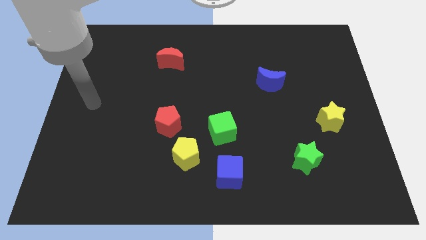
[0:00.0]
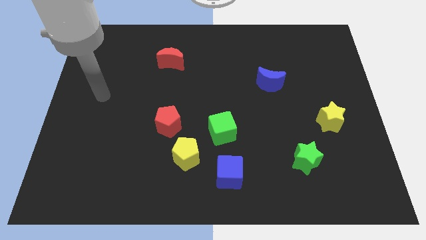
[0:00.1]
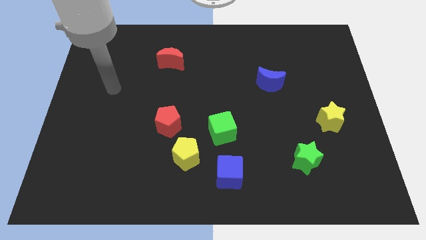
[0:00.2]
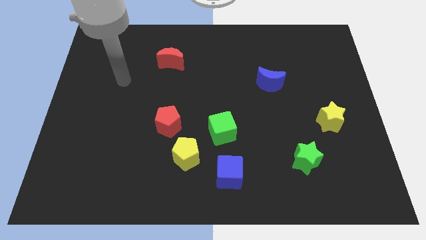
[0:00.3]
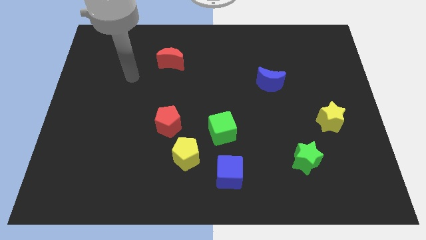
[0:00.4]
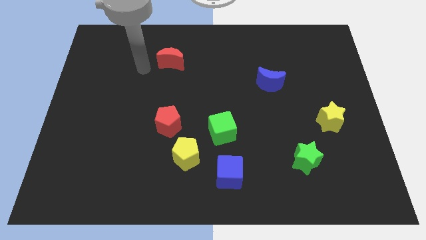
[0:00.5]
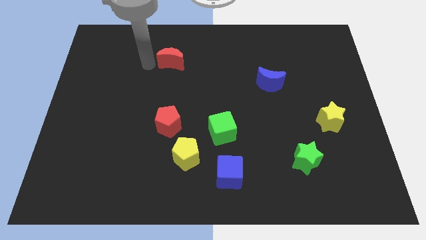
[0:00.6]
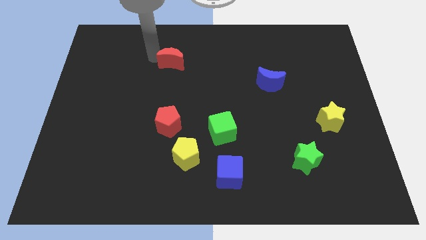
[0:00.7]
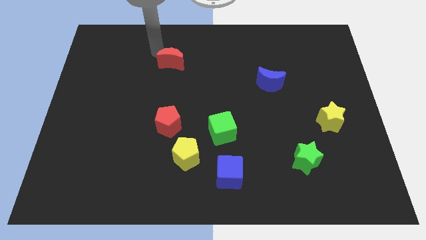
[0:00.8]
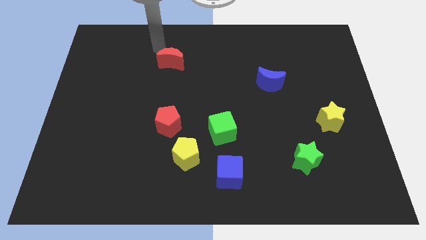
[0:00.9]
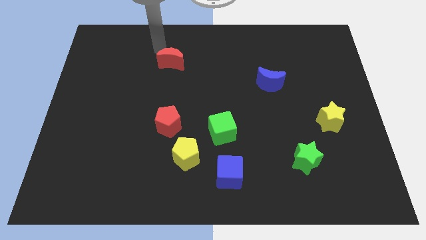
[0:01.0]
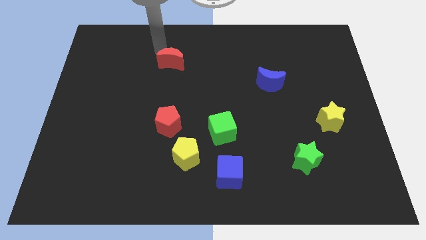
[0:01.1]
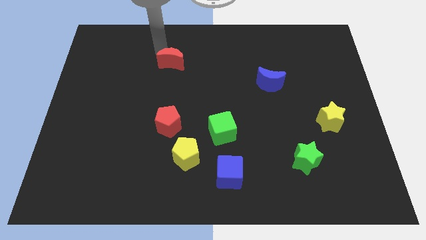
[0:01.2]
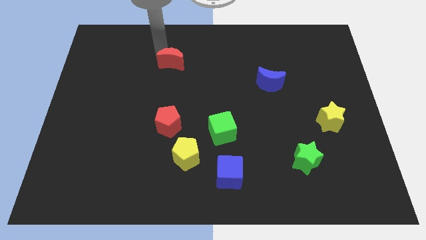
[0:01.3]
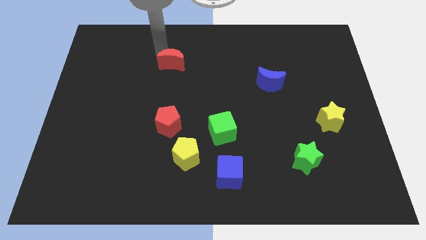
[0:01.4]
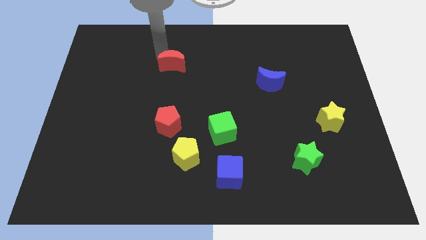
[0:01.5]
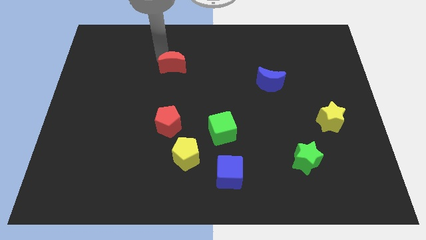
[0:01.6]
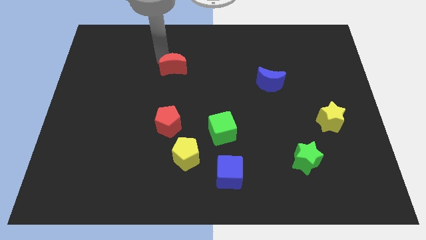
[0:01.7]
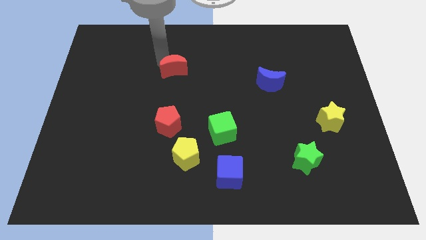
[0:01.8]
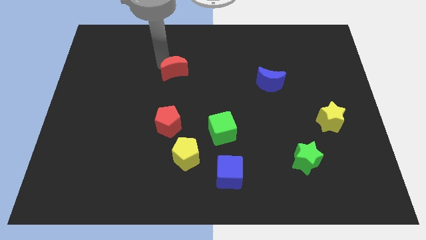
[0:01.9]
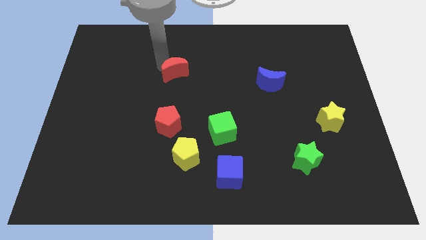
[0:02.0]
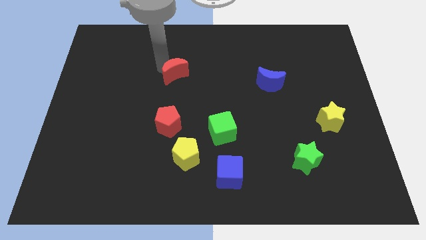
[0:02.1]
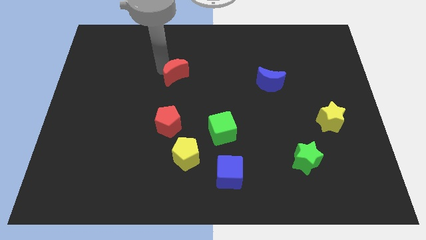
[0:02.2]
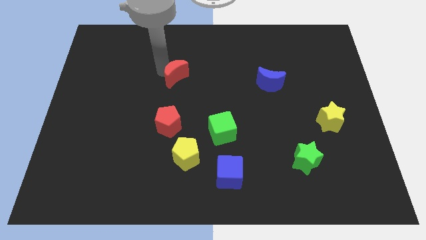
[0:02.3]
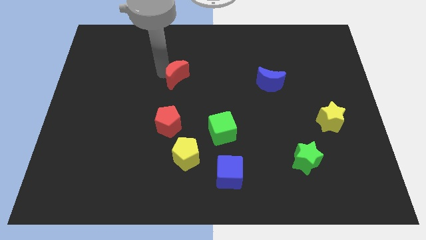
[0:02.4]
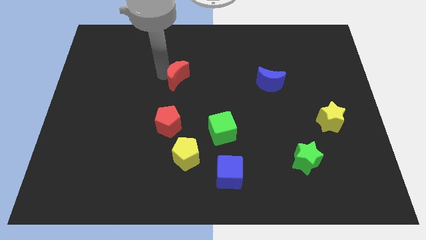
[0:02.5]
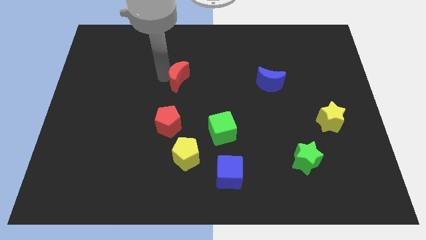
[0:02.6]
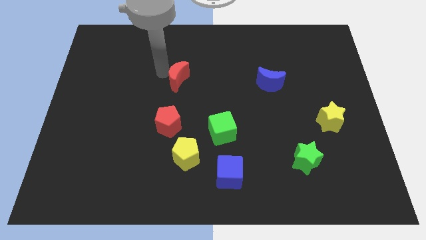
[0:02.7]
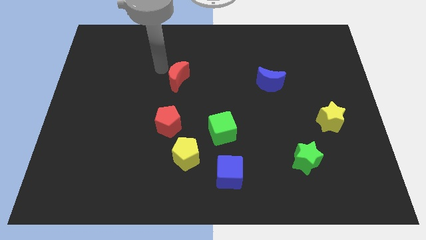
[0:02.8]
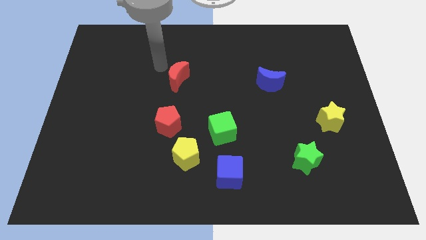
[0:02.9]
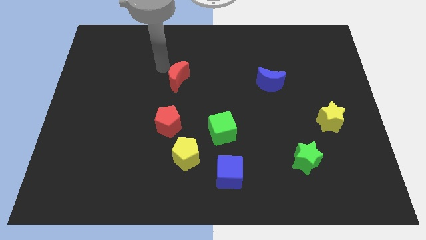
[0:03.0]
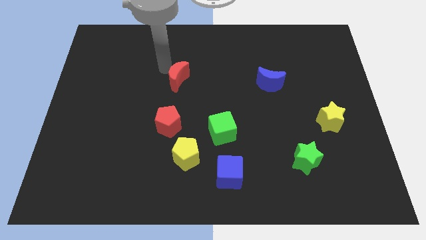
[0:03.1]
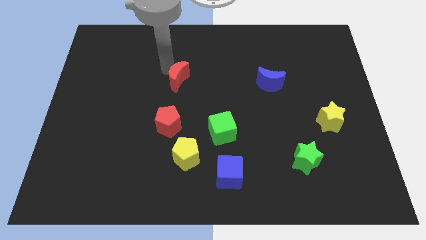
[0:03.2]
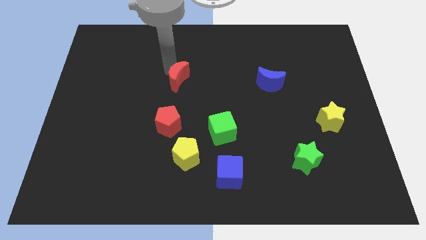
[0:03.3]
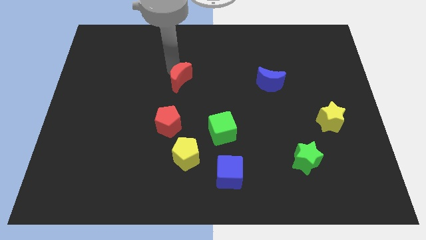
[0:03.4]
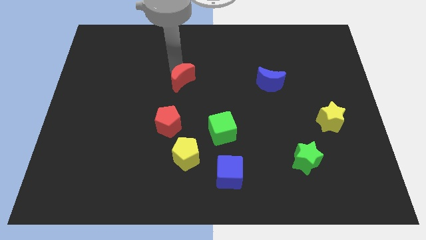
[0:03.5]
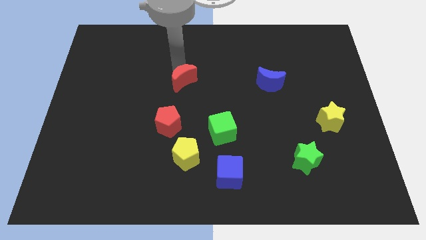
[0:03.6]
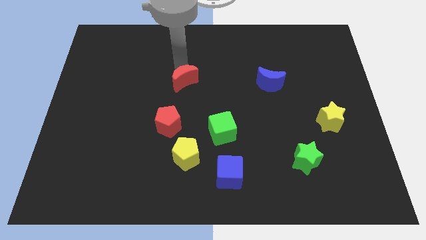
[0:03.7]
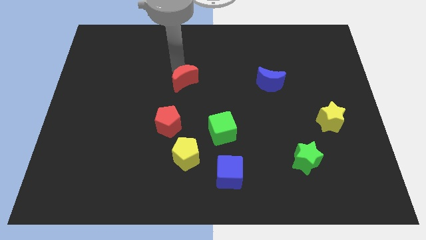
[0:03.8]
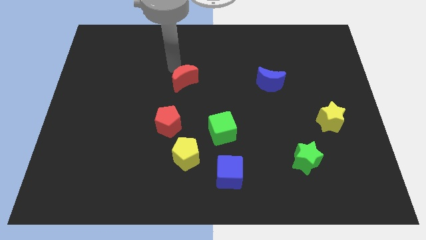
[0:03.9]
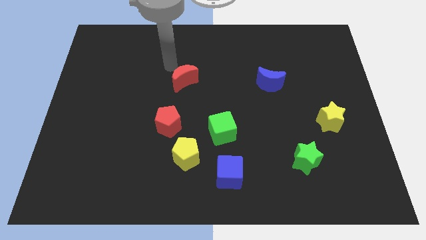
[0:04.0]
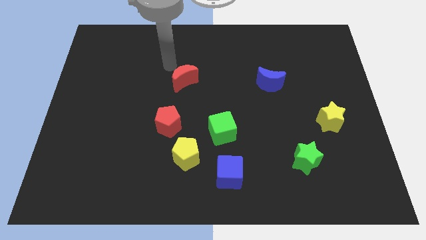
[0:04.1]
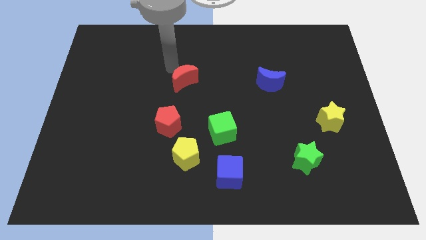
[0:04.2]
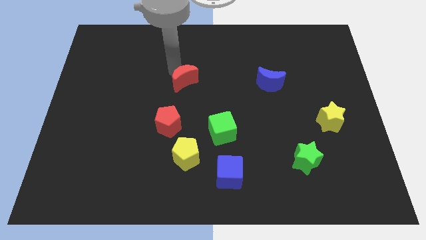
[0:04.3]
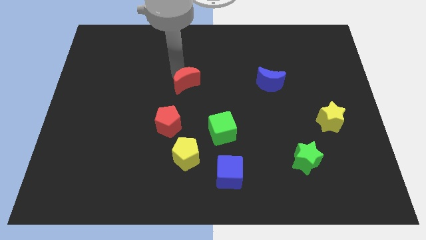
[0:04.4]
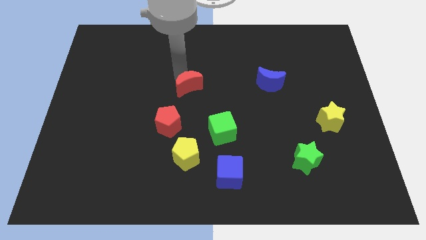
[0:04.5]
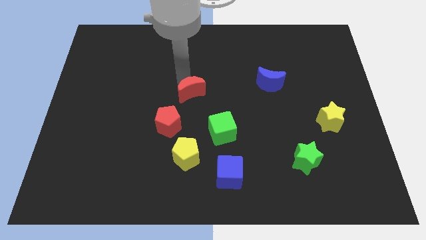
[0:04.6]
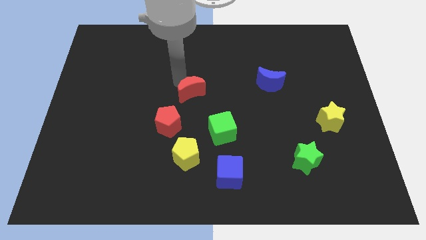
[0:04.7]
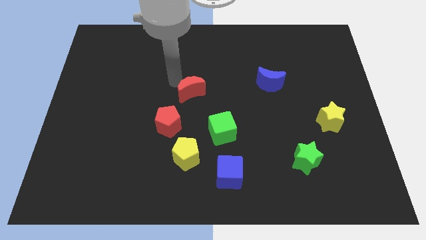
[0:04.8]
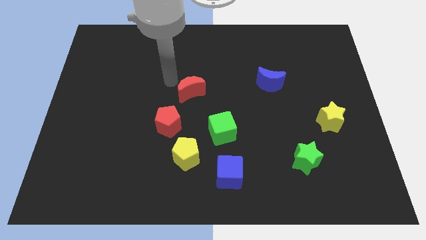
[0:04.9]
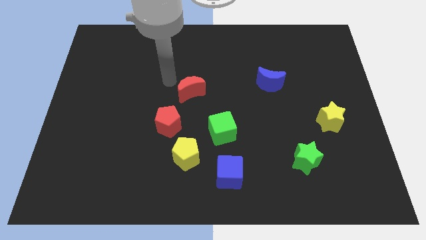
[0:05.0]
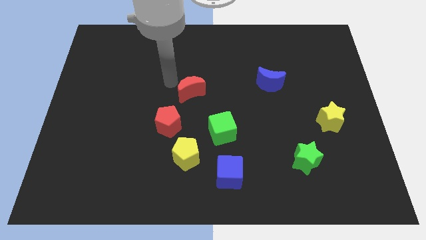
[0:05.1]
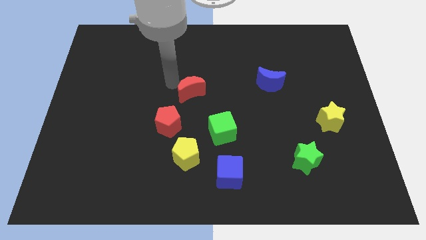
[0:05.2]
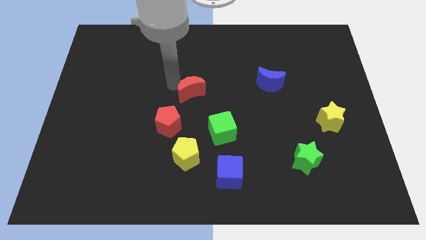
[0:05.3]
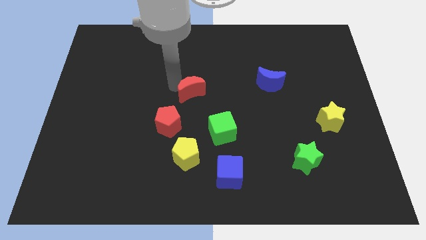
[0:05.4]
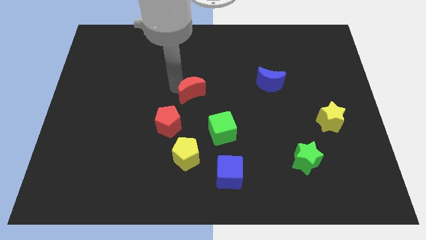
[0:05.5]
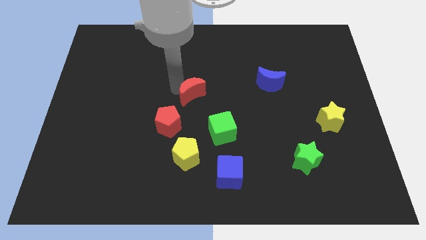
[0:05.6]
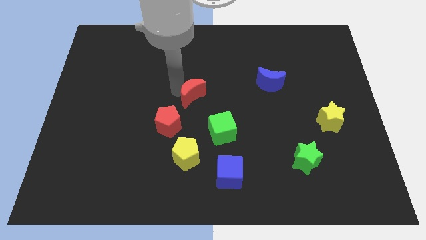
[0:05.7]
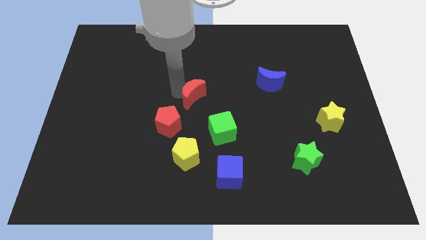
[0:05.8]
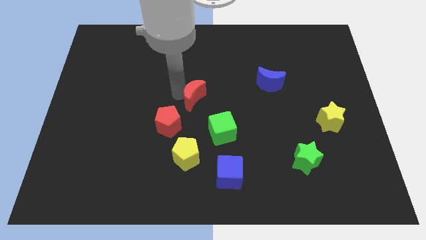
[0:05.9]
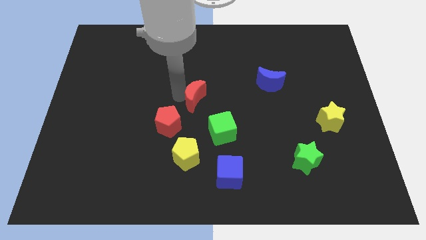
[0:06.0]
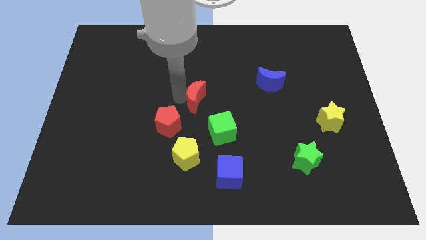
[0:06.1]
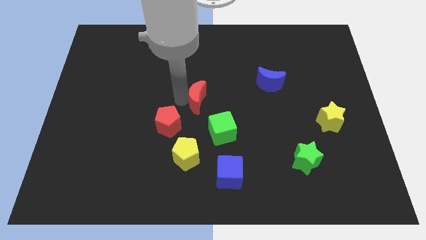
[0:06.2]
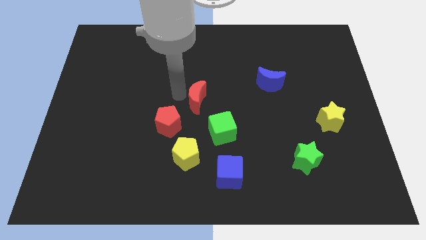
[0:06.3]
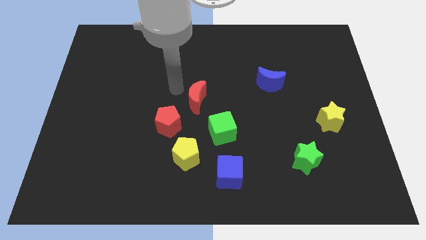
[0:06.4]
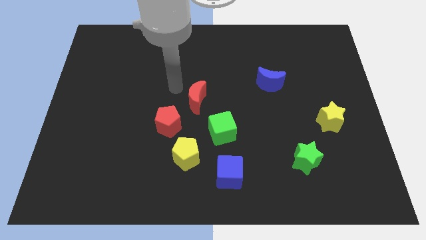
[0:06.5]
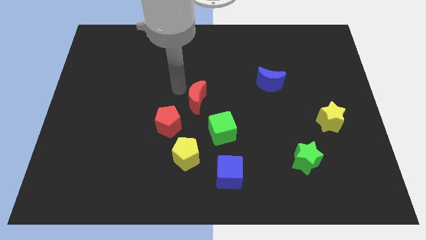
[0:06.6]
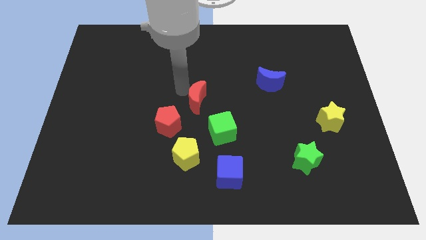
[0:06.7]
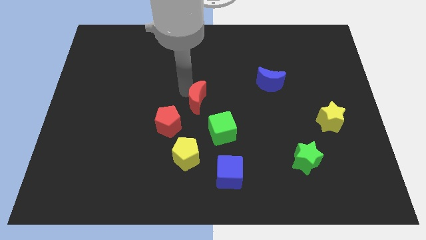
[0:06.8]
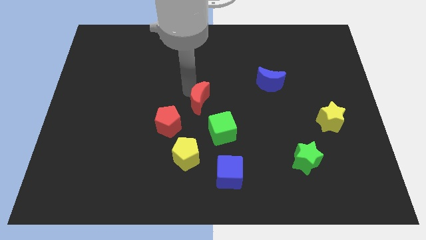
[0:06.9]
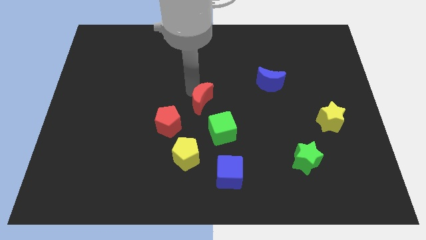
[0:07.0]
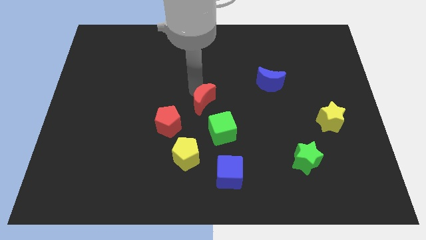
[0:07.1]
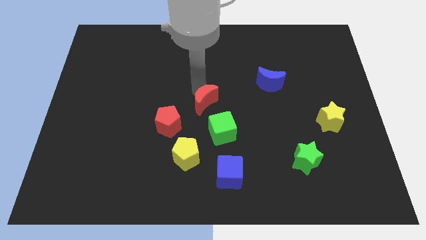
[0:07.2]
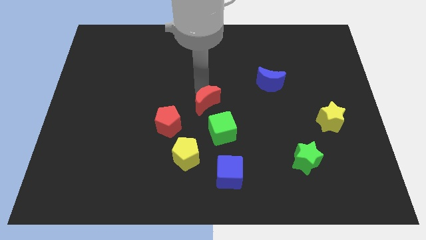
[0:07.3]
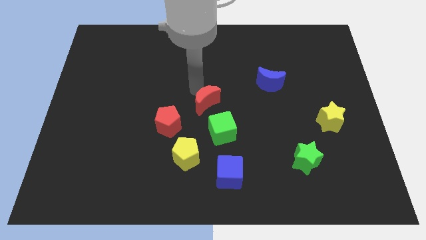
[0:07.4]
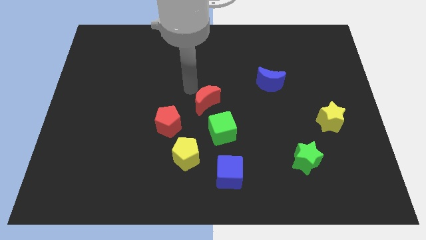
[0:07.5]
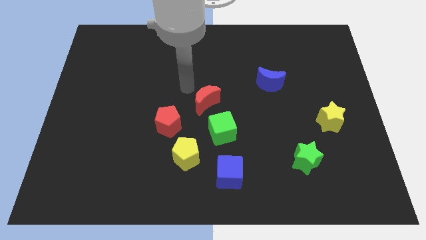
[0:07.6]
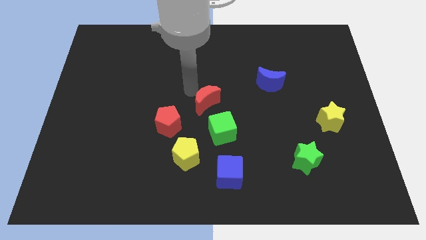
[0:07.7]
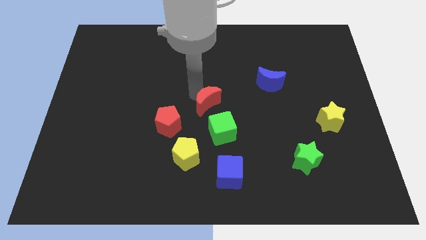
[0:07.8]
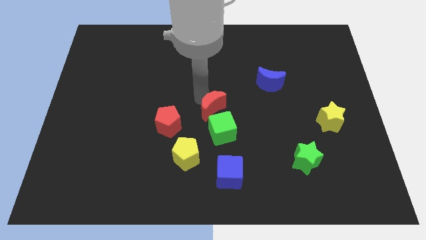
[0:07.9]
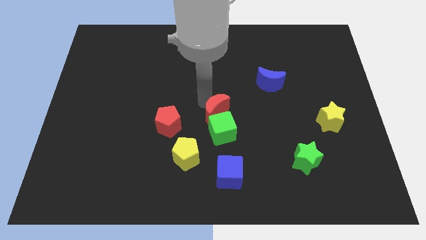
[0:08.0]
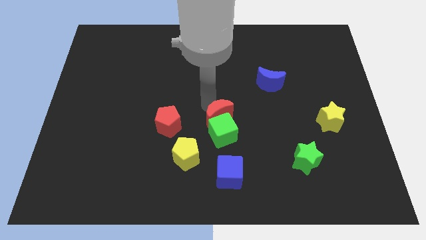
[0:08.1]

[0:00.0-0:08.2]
slide the red moon to the top of the blue cube
